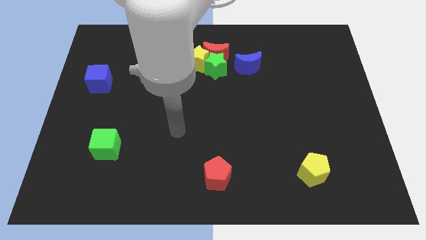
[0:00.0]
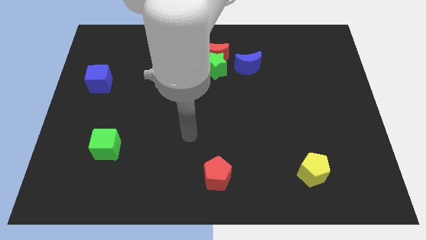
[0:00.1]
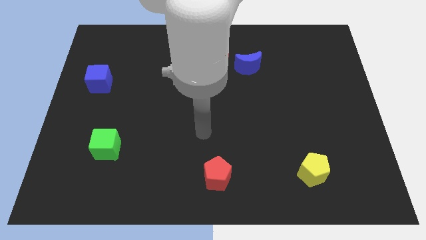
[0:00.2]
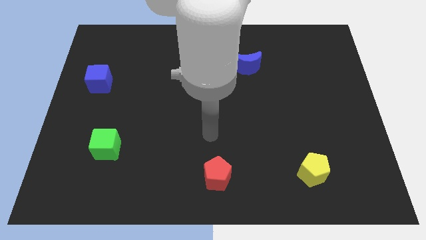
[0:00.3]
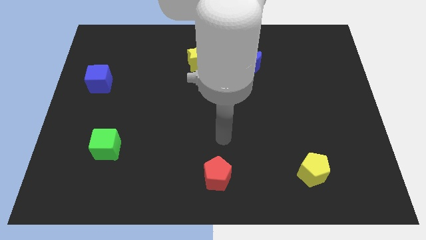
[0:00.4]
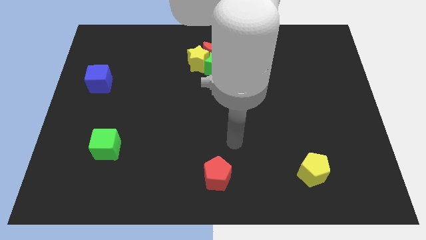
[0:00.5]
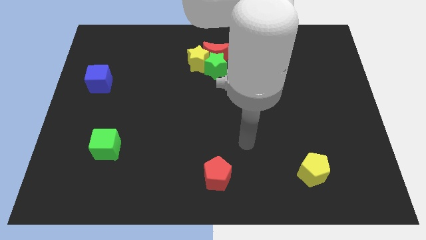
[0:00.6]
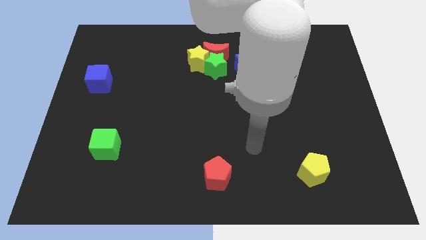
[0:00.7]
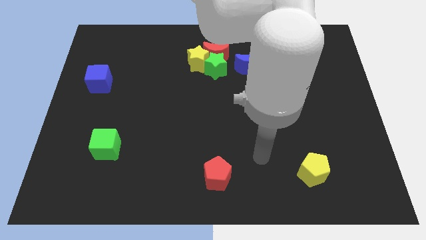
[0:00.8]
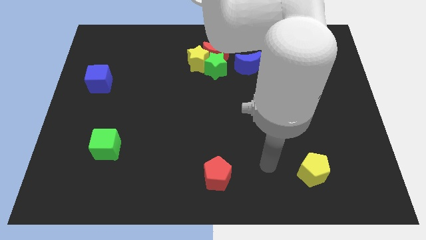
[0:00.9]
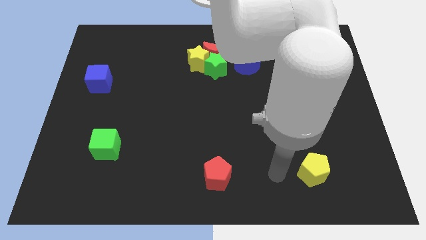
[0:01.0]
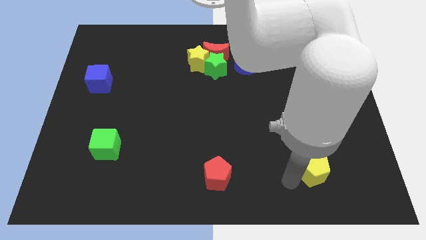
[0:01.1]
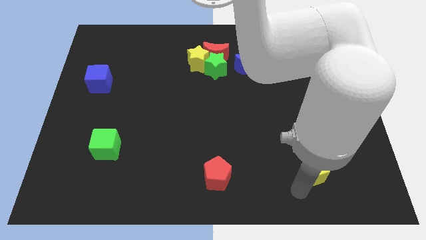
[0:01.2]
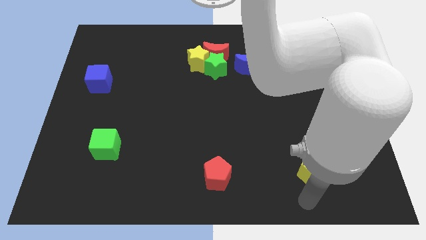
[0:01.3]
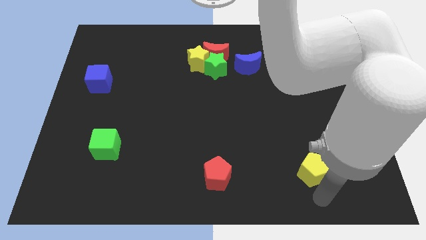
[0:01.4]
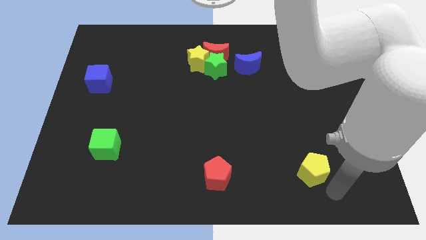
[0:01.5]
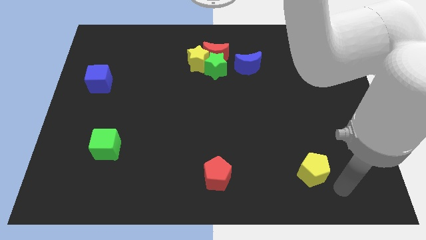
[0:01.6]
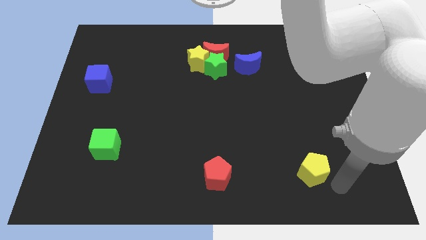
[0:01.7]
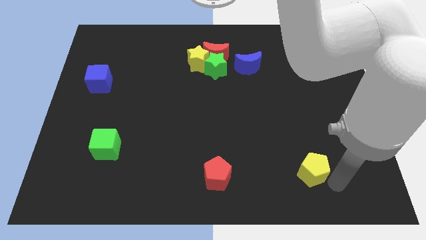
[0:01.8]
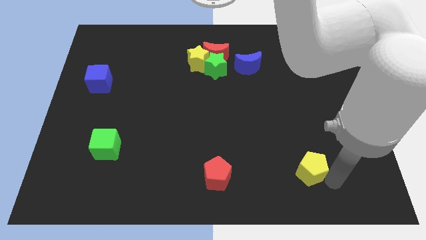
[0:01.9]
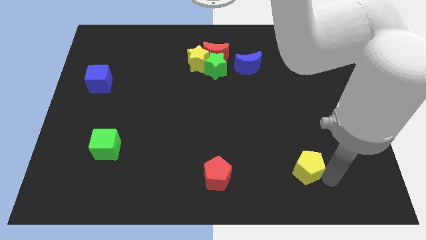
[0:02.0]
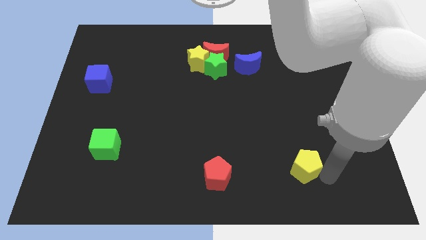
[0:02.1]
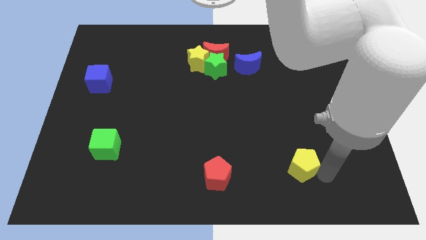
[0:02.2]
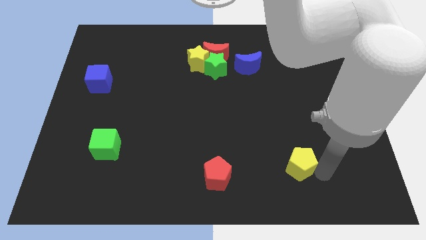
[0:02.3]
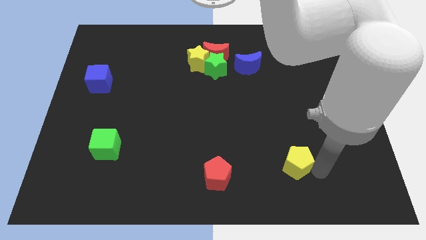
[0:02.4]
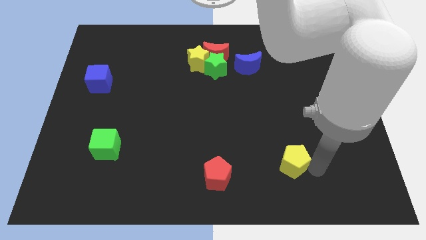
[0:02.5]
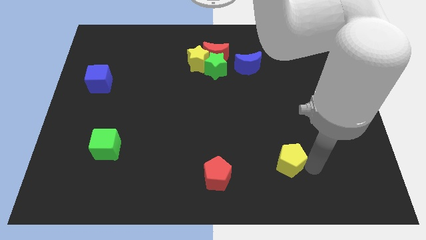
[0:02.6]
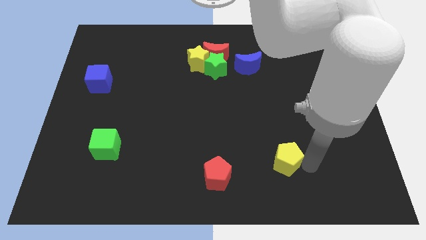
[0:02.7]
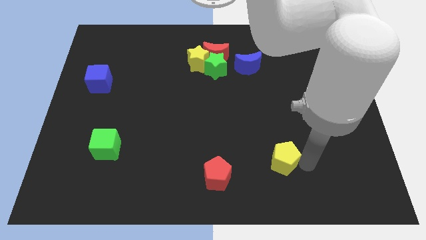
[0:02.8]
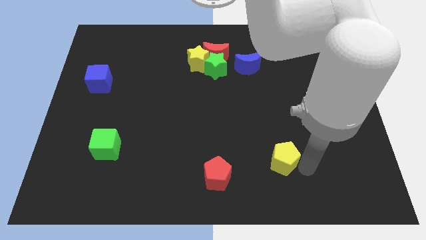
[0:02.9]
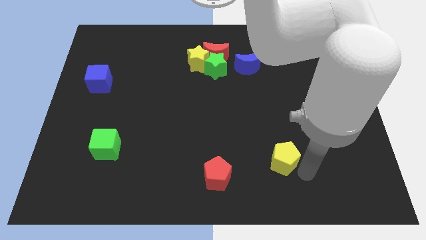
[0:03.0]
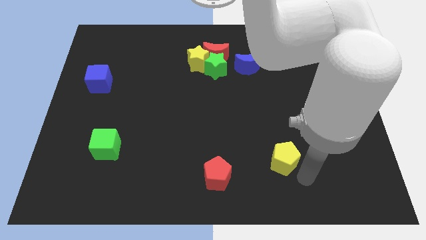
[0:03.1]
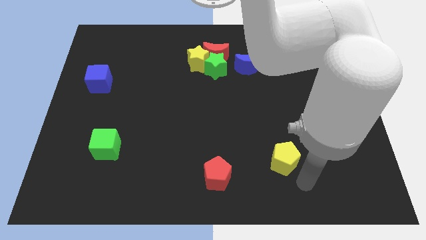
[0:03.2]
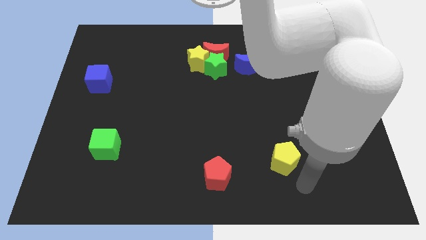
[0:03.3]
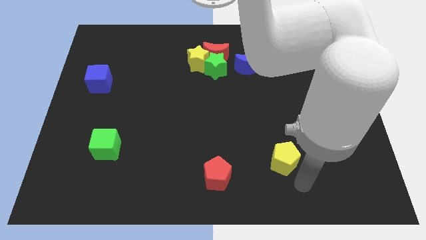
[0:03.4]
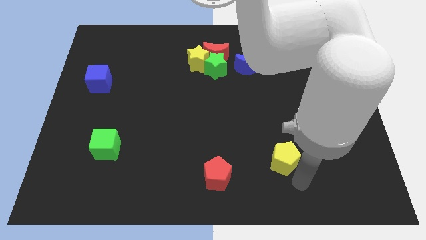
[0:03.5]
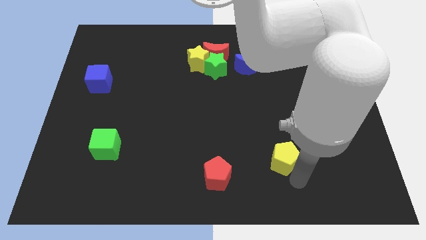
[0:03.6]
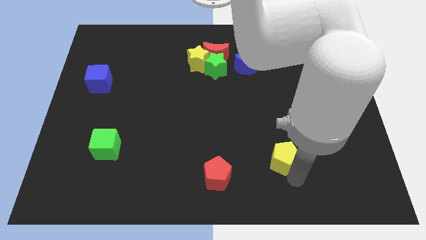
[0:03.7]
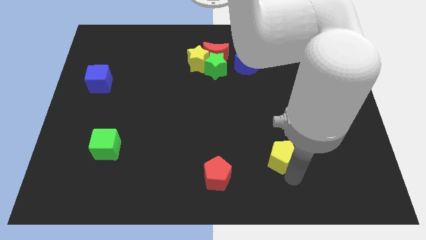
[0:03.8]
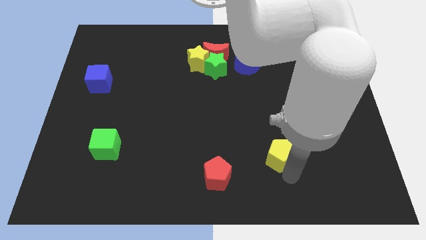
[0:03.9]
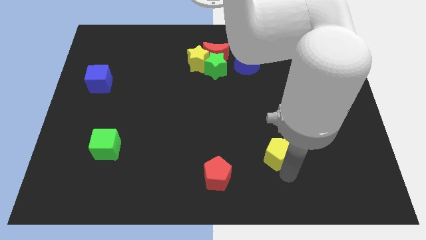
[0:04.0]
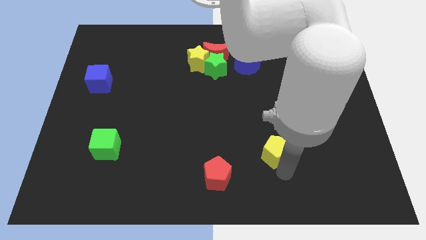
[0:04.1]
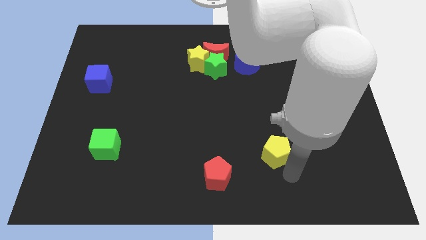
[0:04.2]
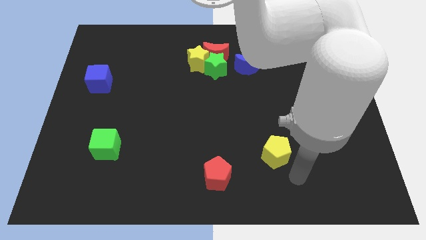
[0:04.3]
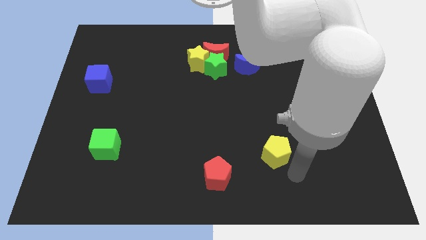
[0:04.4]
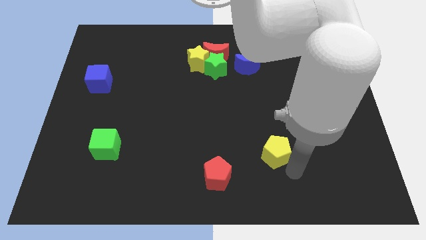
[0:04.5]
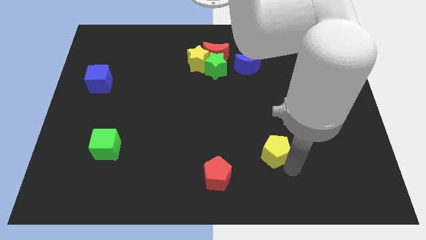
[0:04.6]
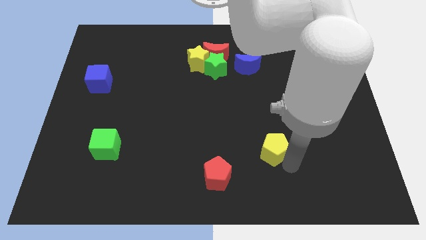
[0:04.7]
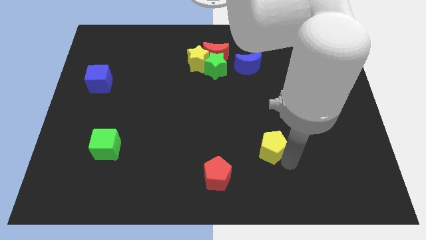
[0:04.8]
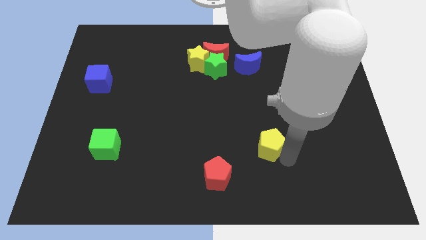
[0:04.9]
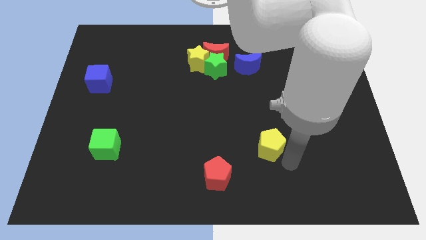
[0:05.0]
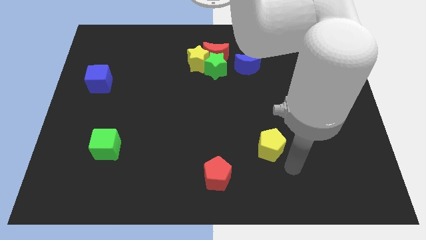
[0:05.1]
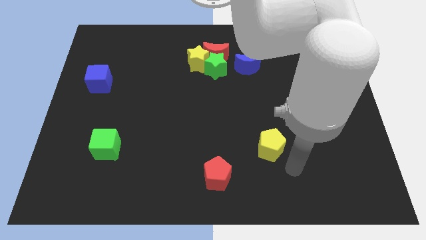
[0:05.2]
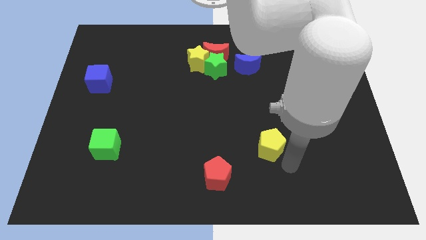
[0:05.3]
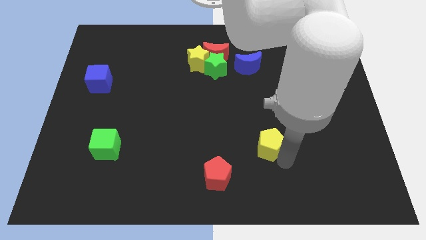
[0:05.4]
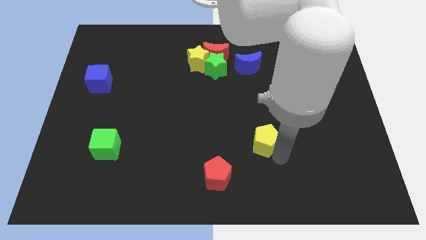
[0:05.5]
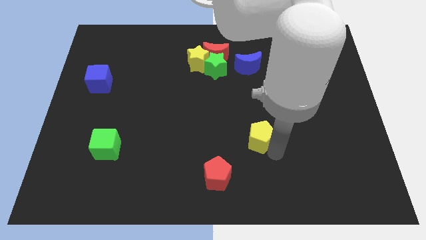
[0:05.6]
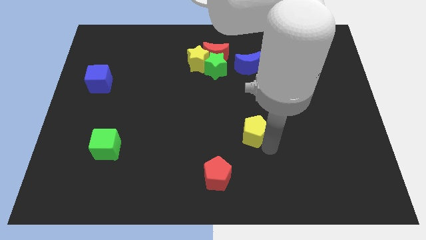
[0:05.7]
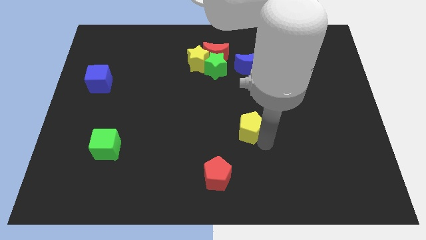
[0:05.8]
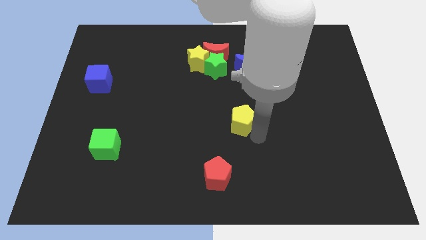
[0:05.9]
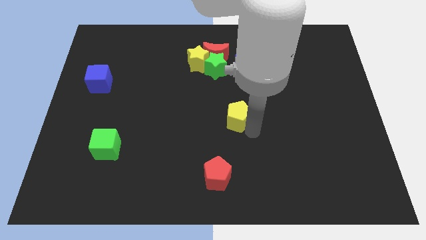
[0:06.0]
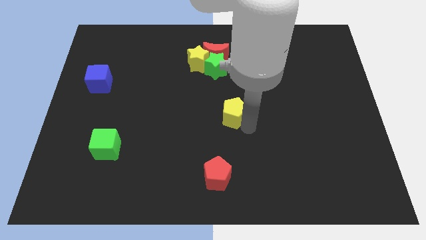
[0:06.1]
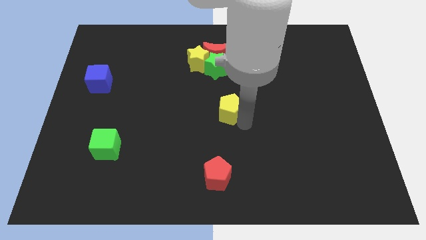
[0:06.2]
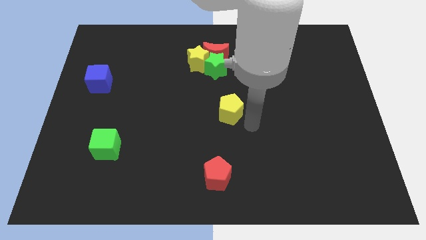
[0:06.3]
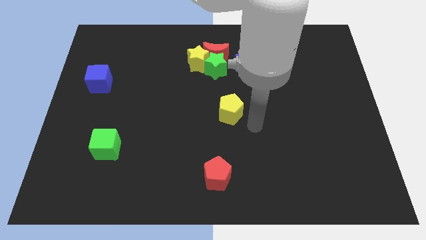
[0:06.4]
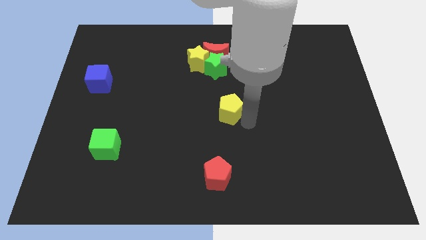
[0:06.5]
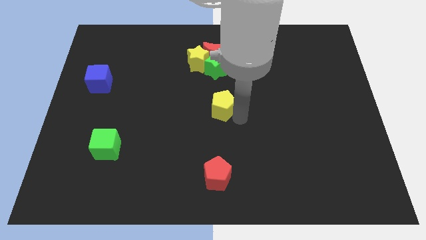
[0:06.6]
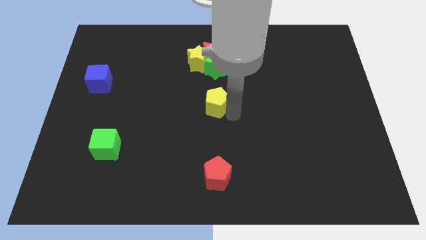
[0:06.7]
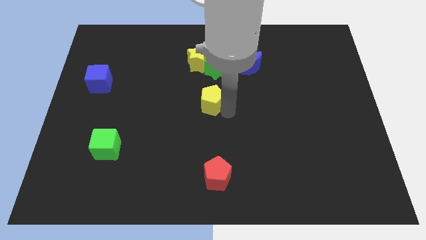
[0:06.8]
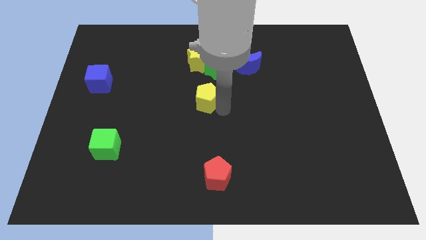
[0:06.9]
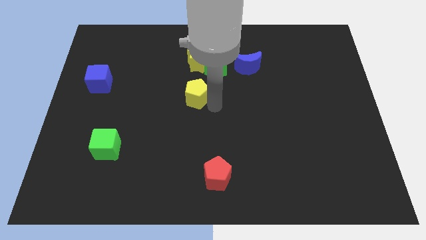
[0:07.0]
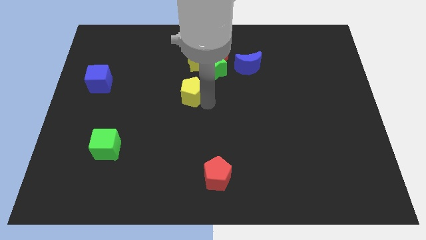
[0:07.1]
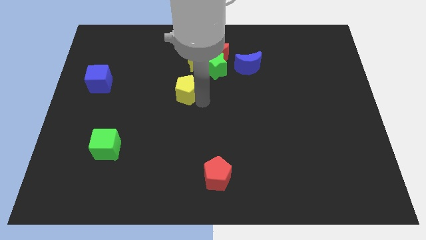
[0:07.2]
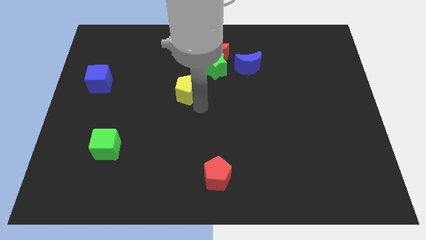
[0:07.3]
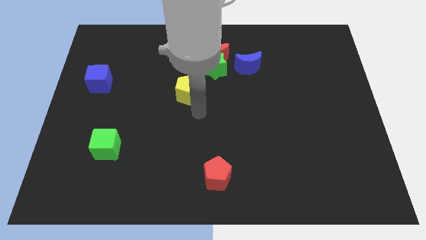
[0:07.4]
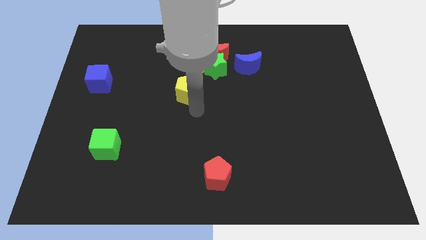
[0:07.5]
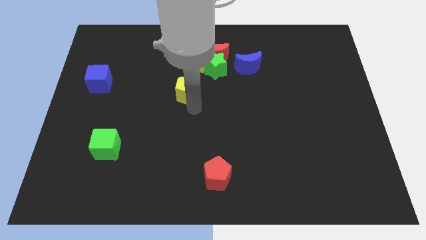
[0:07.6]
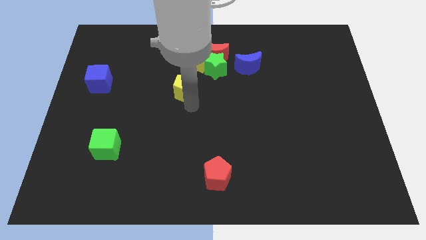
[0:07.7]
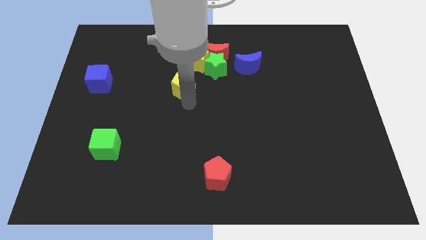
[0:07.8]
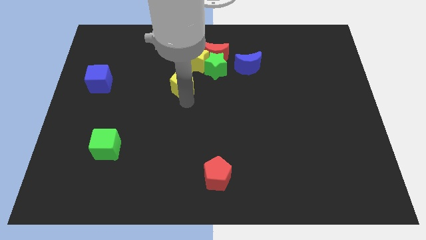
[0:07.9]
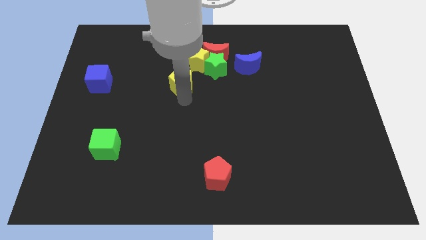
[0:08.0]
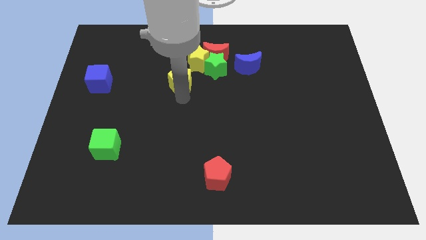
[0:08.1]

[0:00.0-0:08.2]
put the yellow pentagon to the left side of the green star
